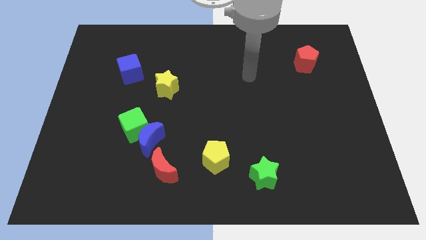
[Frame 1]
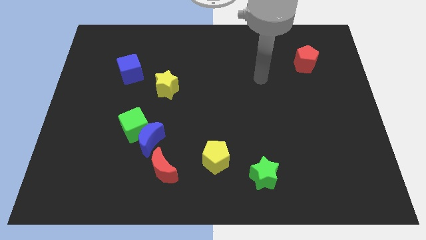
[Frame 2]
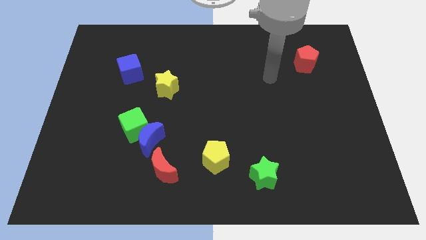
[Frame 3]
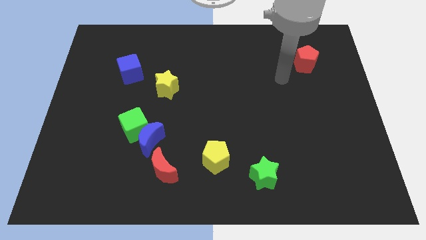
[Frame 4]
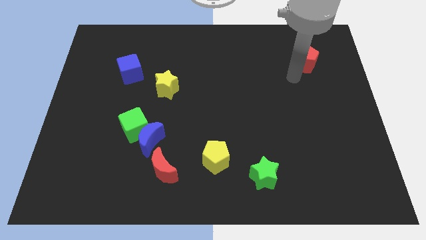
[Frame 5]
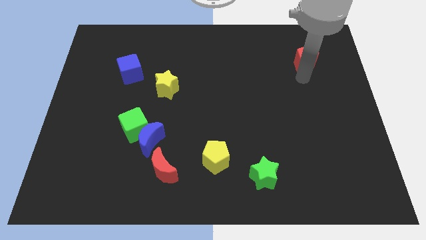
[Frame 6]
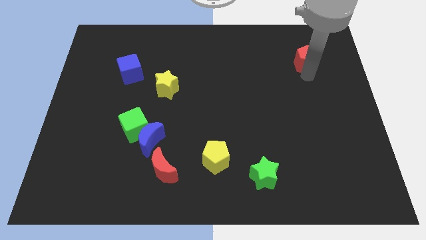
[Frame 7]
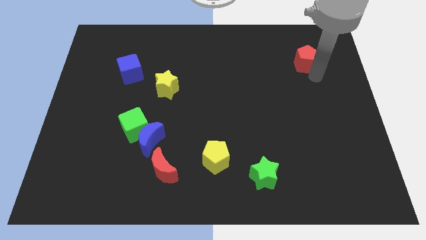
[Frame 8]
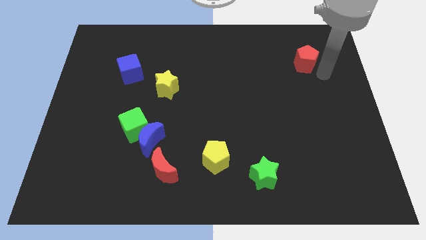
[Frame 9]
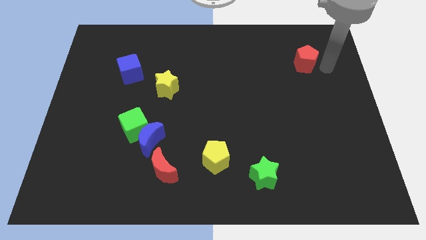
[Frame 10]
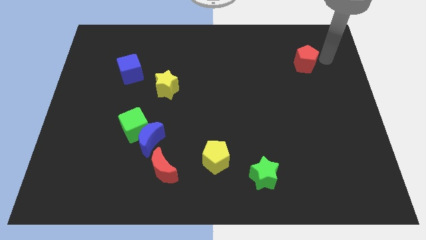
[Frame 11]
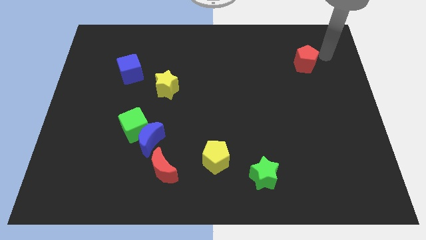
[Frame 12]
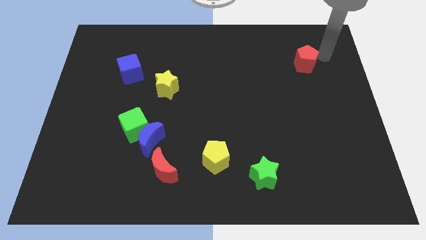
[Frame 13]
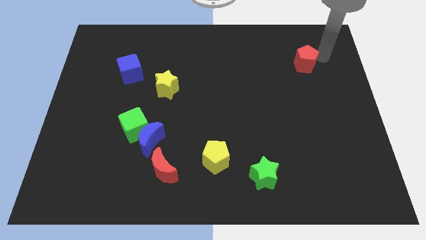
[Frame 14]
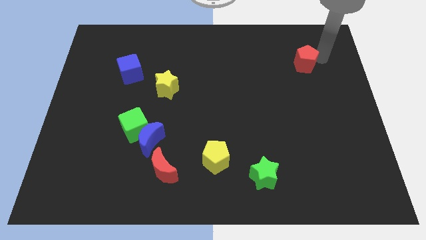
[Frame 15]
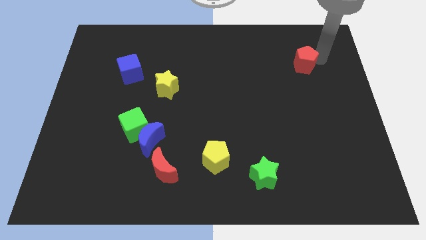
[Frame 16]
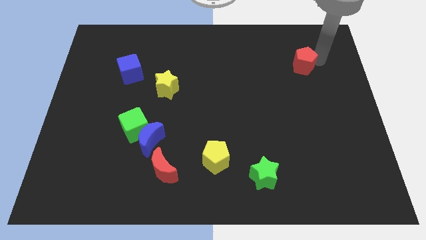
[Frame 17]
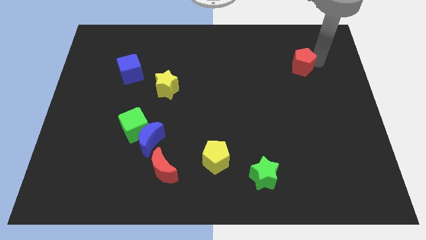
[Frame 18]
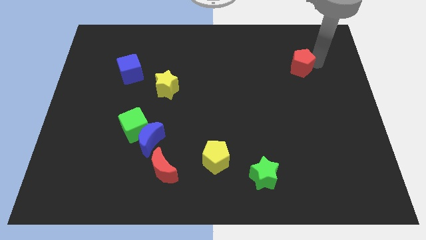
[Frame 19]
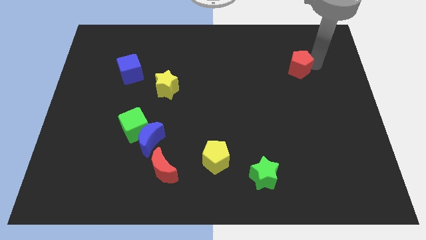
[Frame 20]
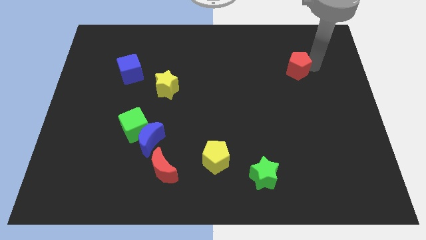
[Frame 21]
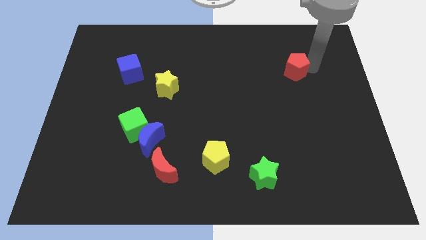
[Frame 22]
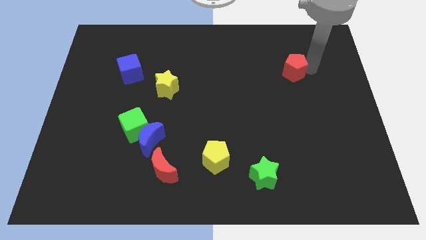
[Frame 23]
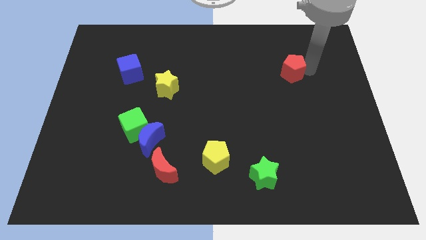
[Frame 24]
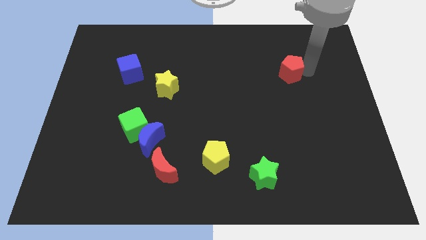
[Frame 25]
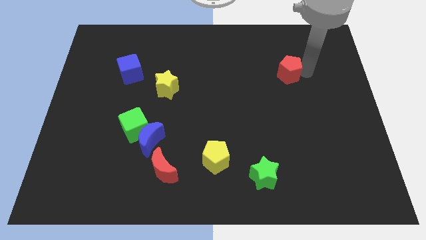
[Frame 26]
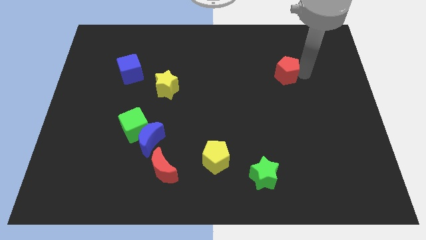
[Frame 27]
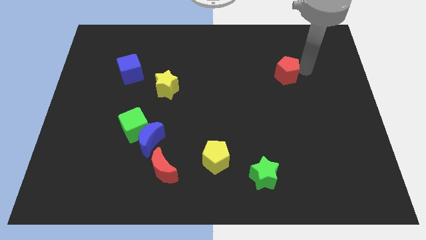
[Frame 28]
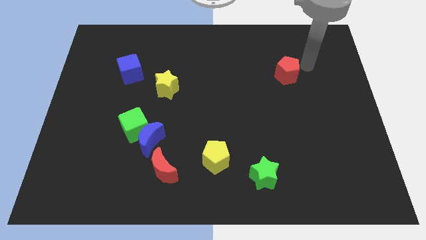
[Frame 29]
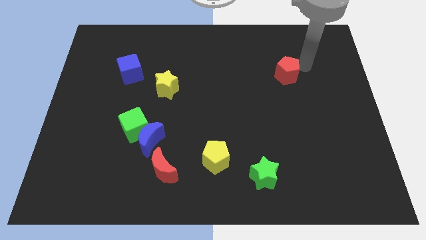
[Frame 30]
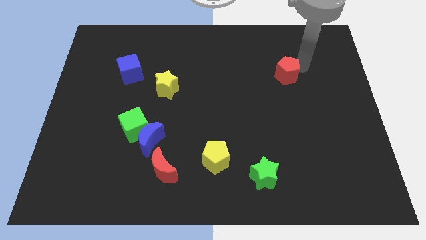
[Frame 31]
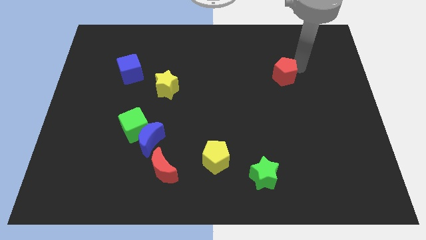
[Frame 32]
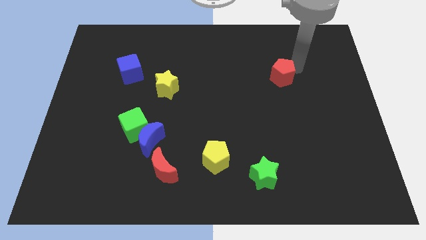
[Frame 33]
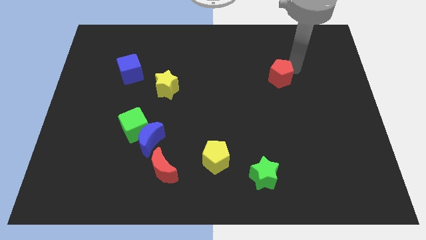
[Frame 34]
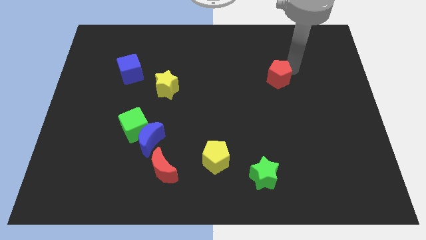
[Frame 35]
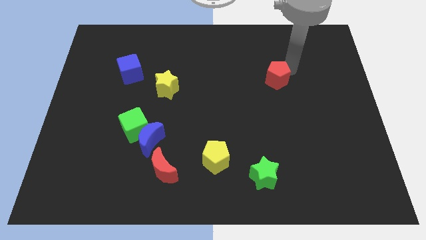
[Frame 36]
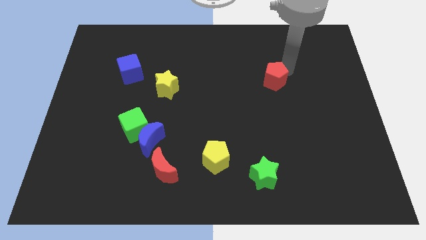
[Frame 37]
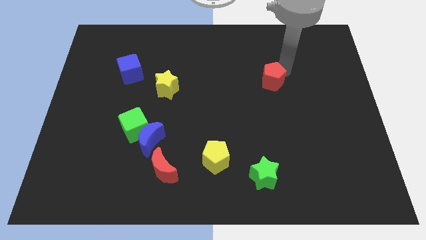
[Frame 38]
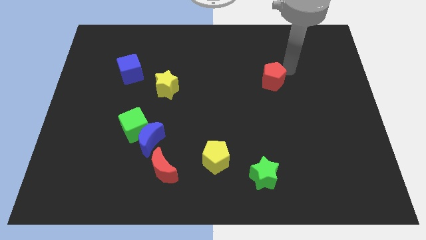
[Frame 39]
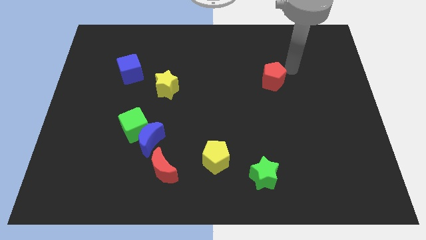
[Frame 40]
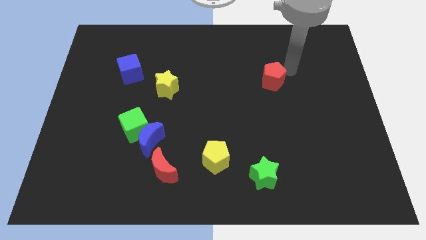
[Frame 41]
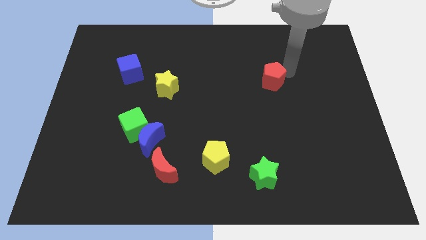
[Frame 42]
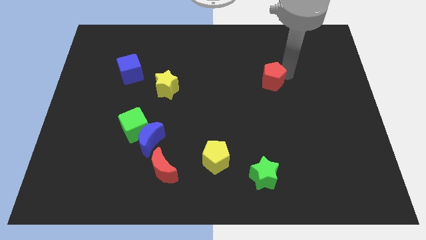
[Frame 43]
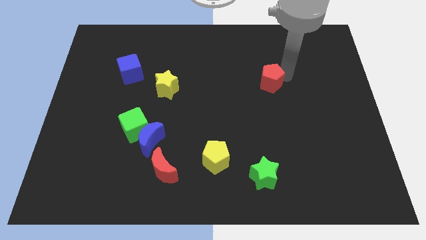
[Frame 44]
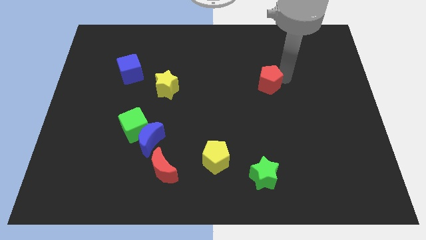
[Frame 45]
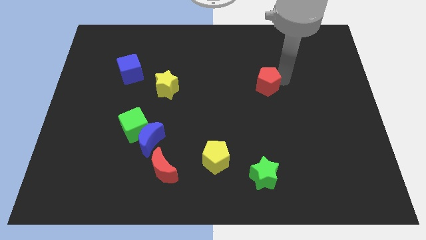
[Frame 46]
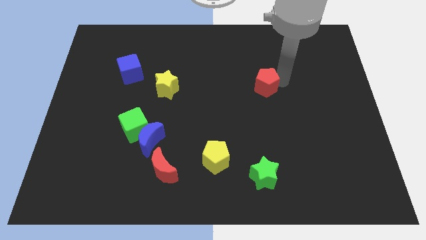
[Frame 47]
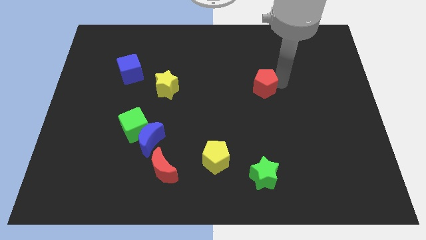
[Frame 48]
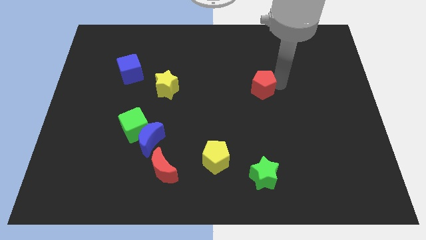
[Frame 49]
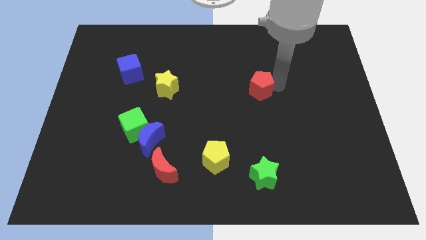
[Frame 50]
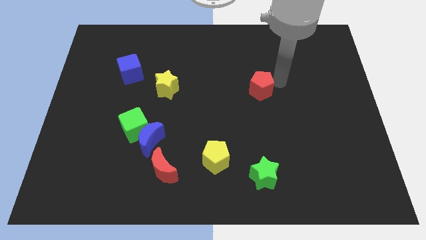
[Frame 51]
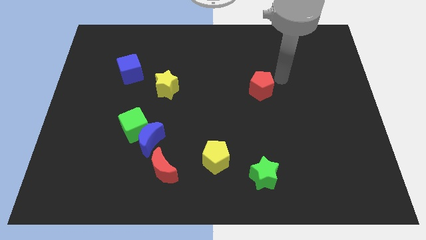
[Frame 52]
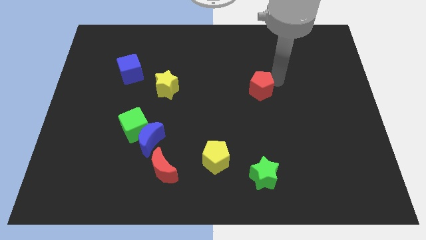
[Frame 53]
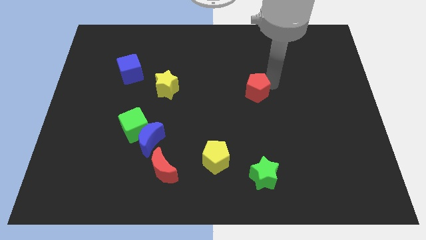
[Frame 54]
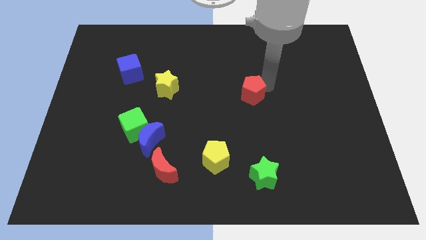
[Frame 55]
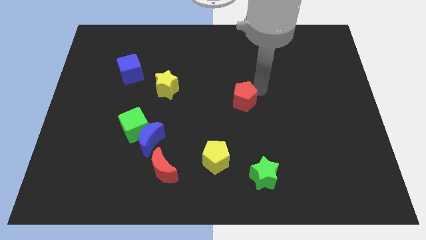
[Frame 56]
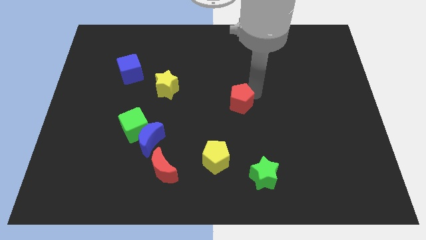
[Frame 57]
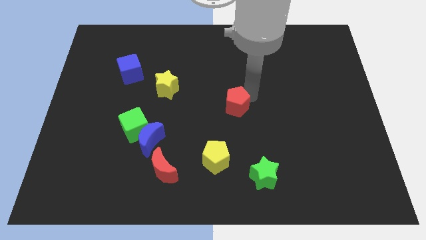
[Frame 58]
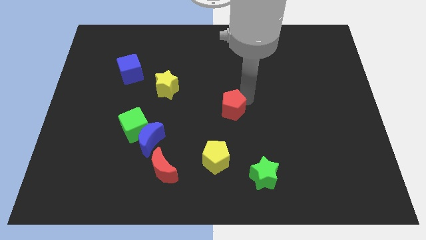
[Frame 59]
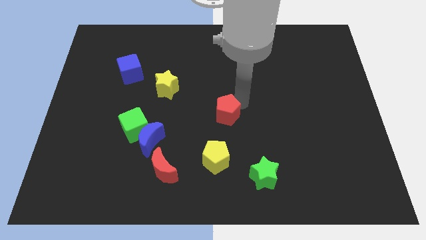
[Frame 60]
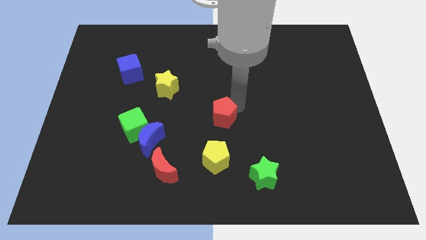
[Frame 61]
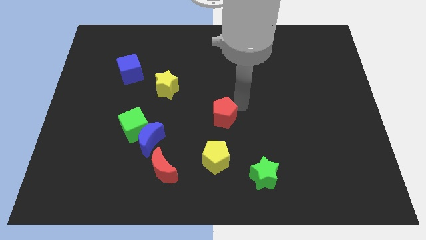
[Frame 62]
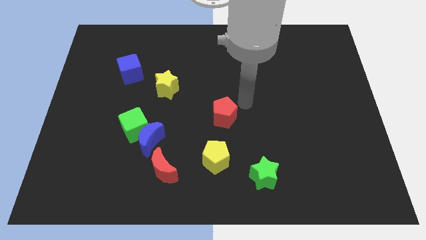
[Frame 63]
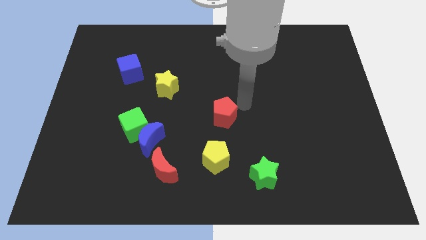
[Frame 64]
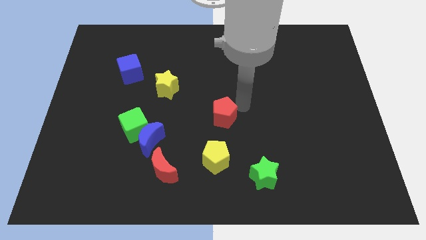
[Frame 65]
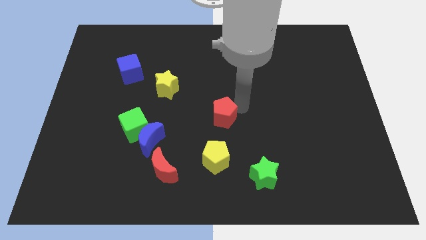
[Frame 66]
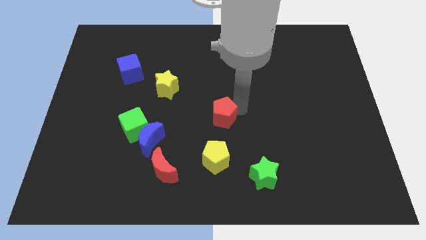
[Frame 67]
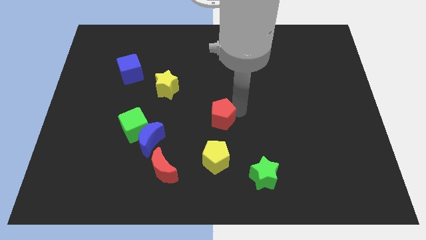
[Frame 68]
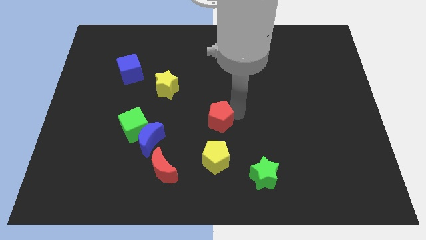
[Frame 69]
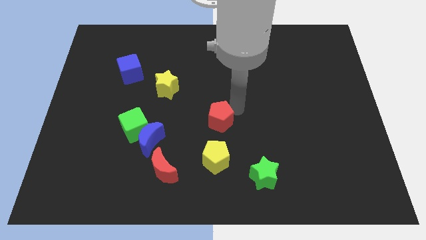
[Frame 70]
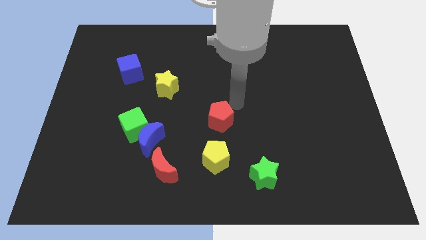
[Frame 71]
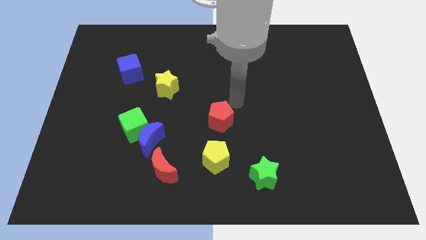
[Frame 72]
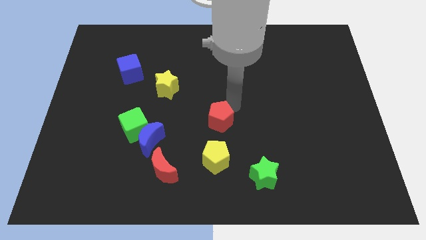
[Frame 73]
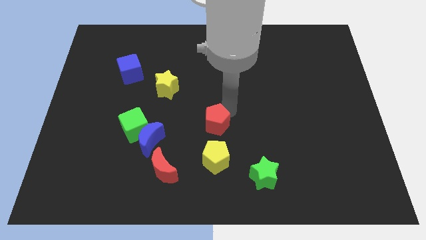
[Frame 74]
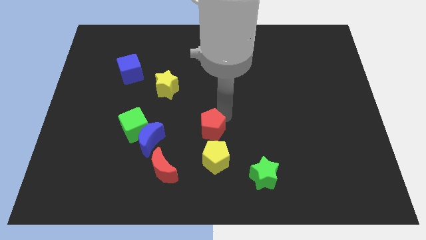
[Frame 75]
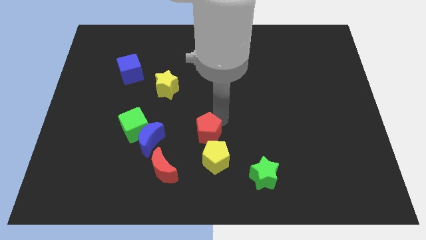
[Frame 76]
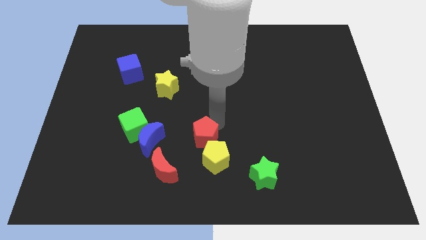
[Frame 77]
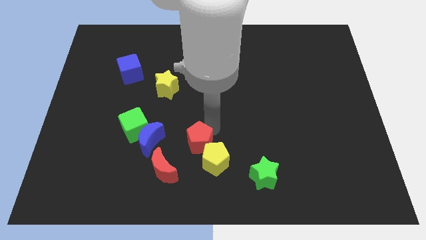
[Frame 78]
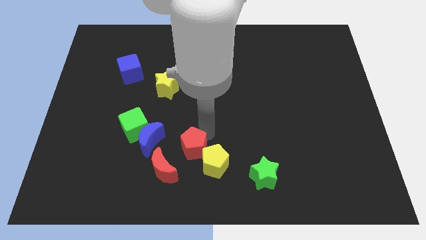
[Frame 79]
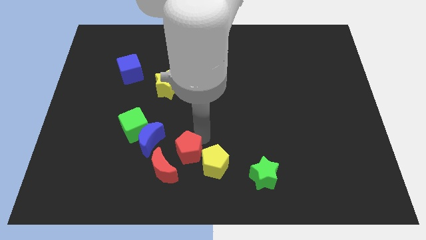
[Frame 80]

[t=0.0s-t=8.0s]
move the red pentagon diagonally down and to the right of the blue moon
